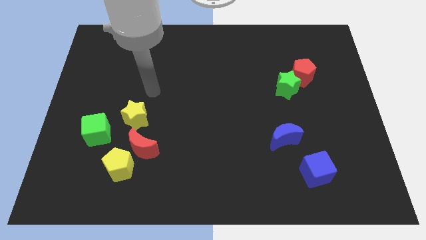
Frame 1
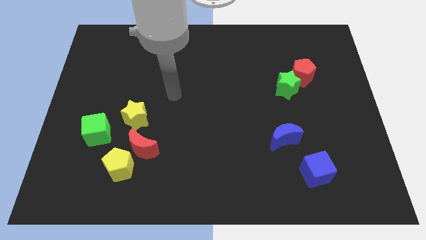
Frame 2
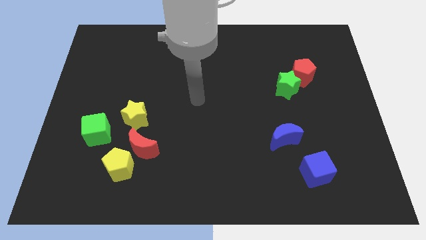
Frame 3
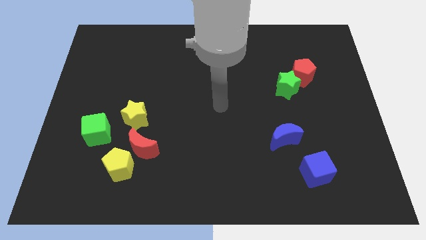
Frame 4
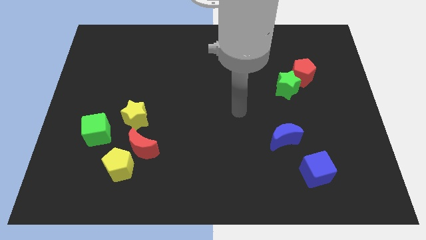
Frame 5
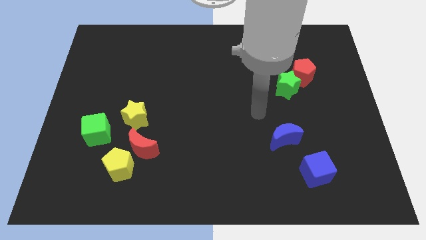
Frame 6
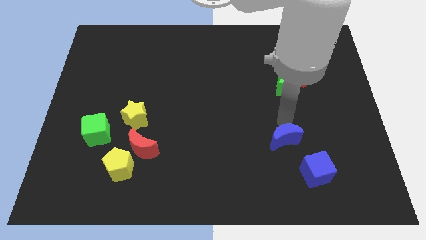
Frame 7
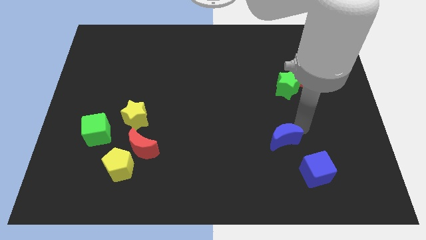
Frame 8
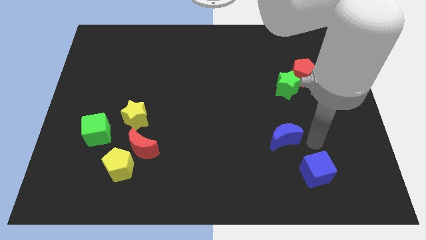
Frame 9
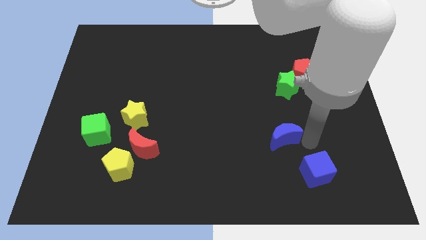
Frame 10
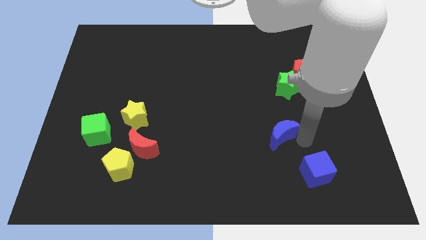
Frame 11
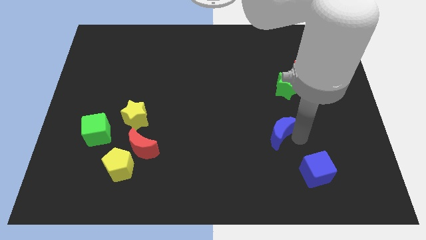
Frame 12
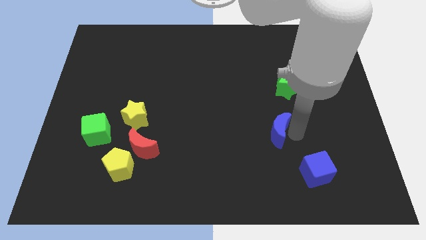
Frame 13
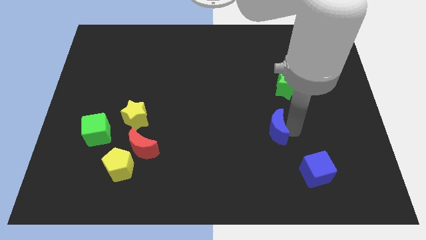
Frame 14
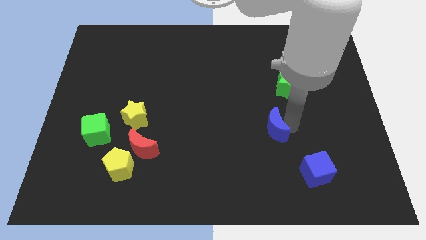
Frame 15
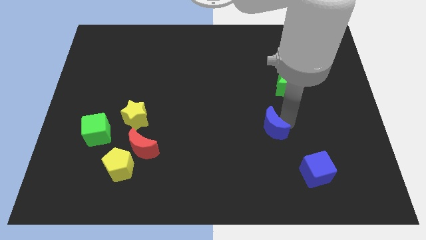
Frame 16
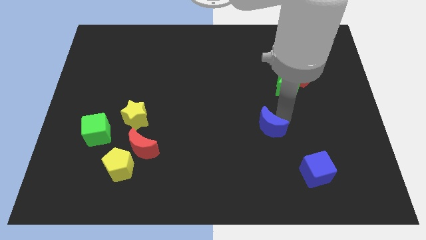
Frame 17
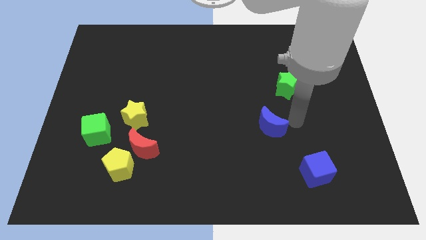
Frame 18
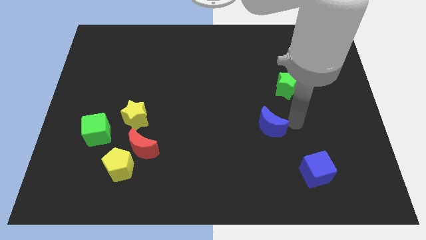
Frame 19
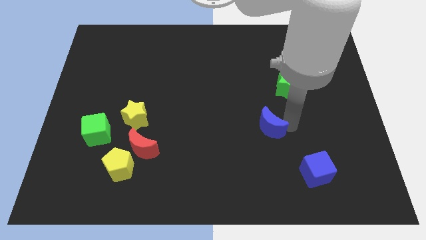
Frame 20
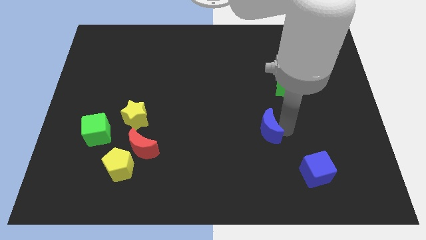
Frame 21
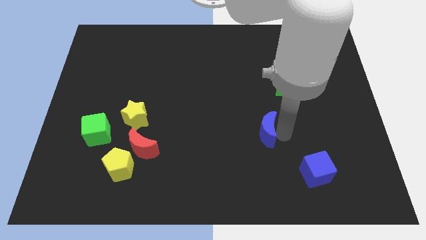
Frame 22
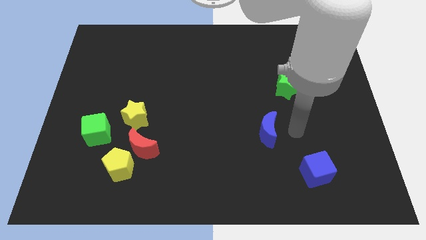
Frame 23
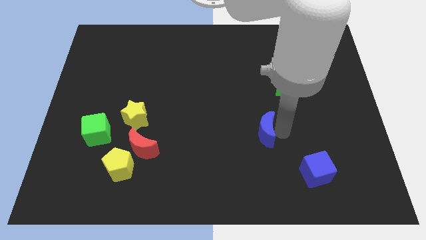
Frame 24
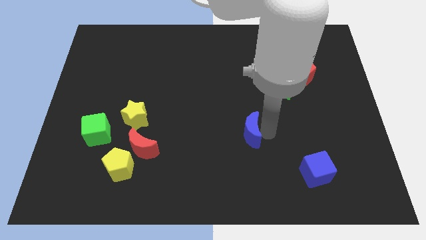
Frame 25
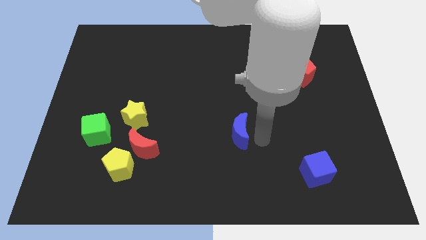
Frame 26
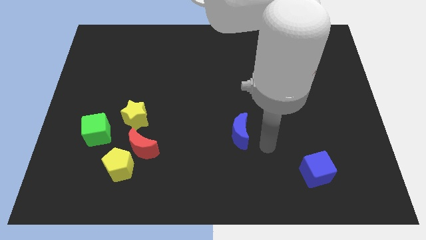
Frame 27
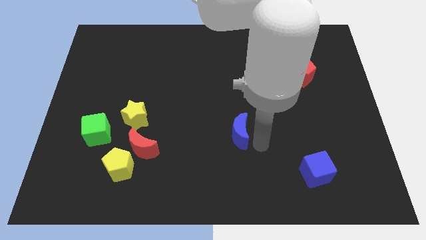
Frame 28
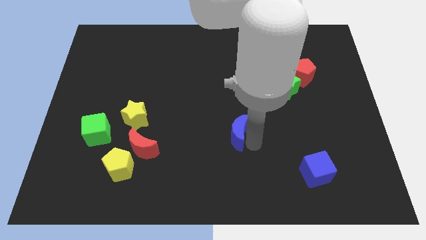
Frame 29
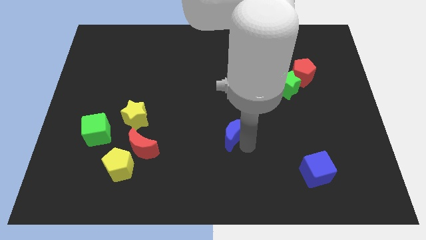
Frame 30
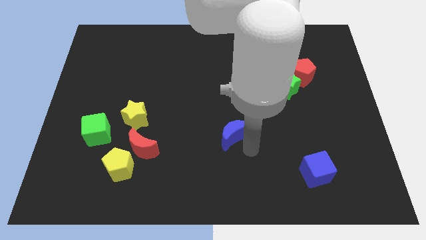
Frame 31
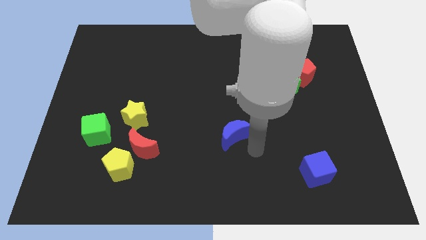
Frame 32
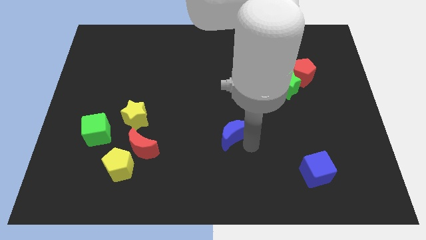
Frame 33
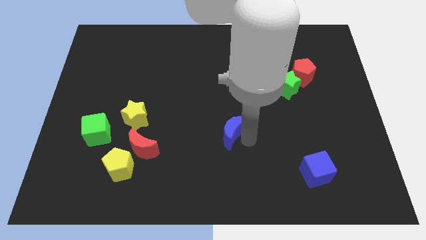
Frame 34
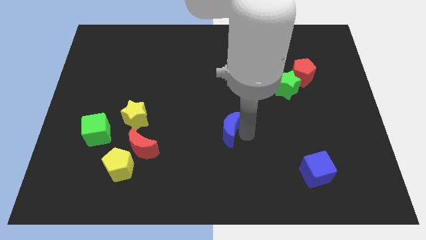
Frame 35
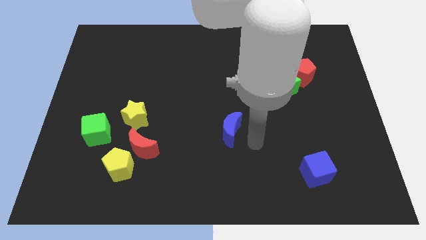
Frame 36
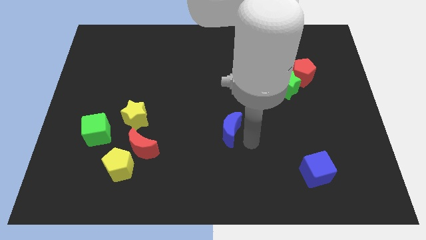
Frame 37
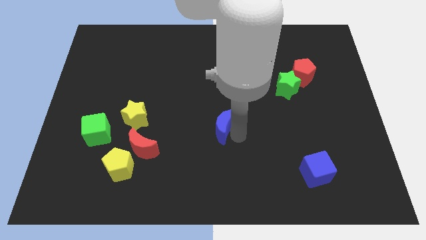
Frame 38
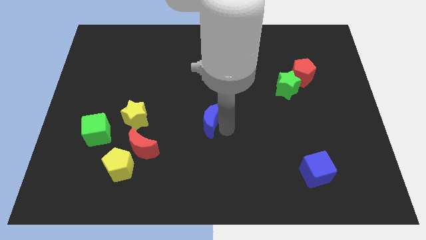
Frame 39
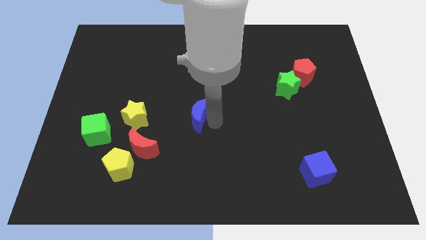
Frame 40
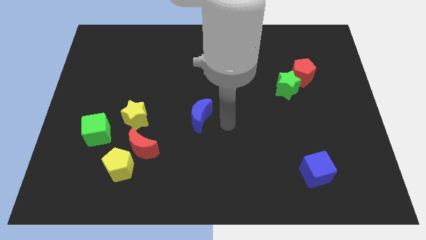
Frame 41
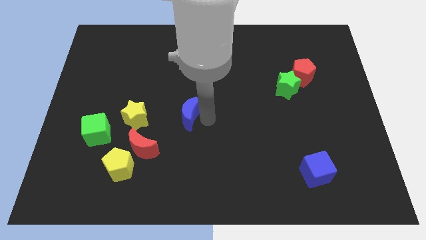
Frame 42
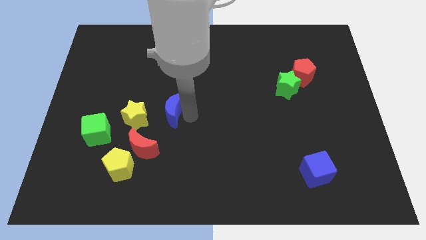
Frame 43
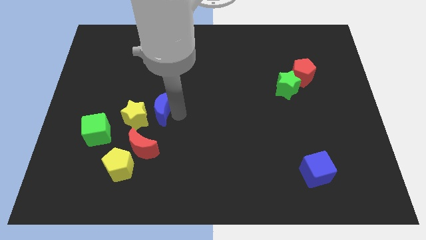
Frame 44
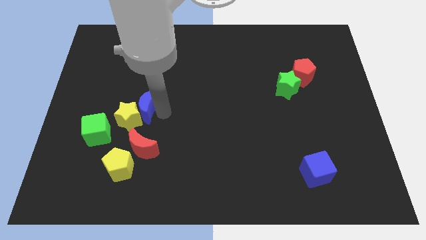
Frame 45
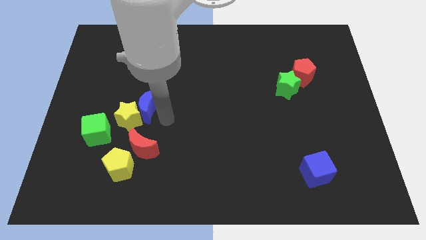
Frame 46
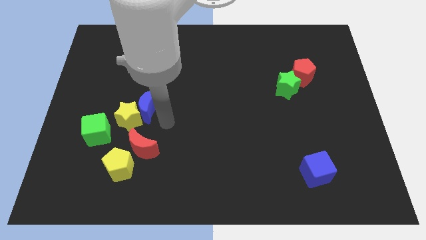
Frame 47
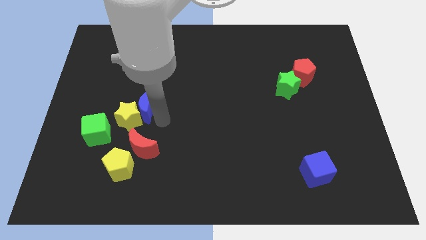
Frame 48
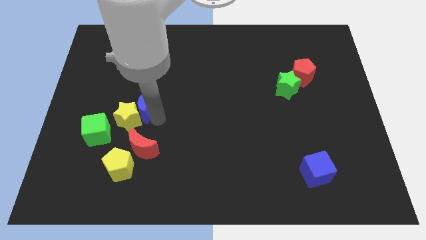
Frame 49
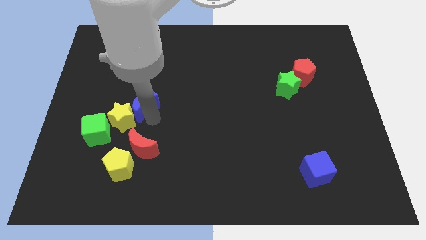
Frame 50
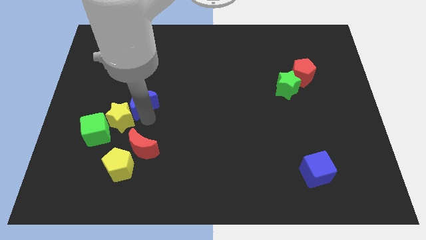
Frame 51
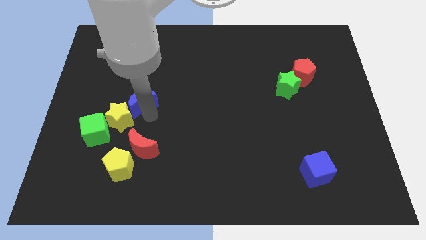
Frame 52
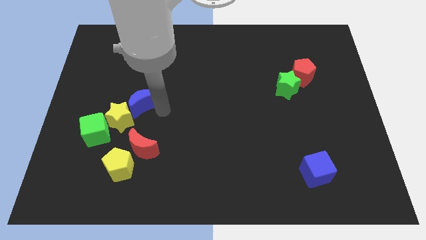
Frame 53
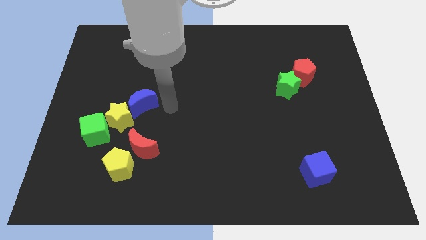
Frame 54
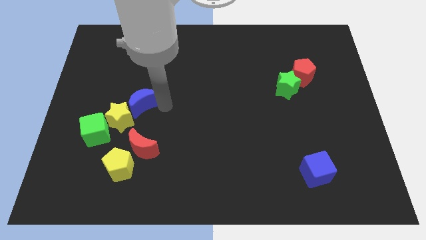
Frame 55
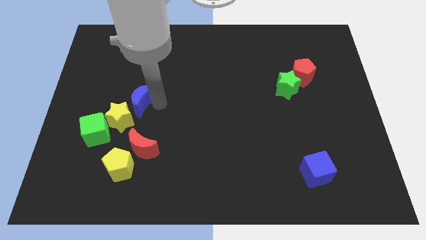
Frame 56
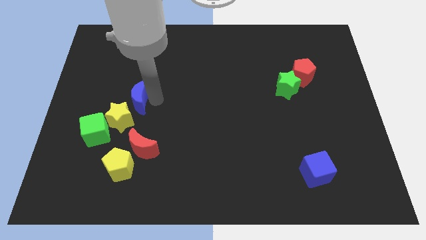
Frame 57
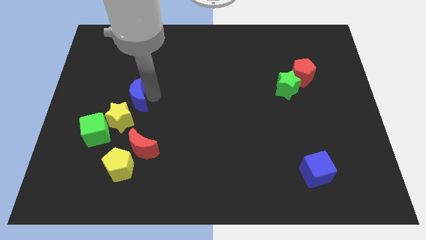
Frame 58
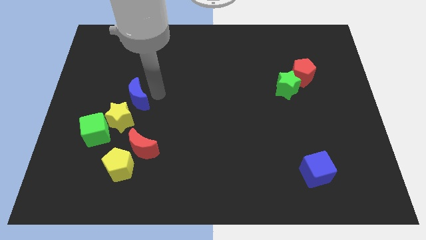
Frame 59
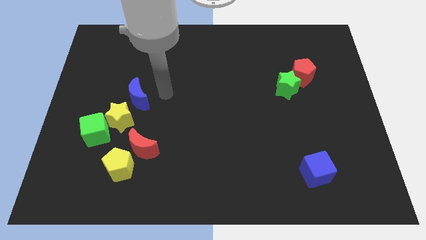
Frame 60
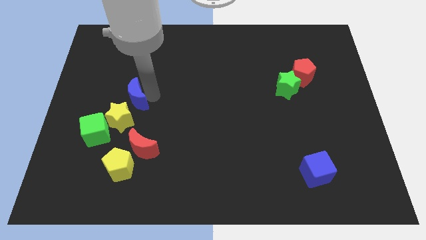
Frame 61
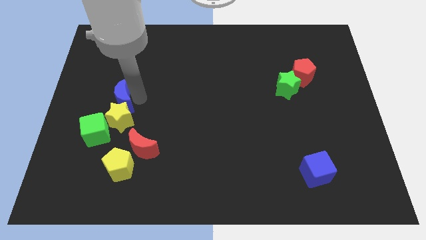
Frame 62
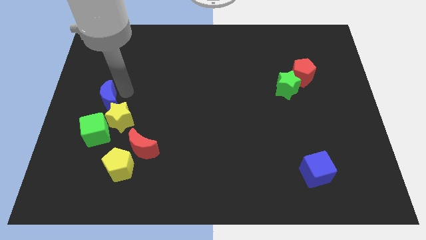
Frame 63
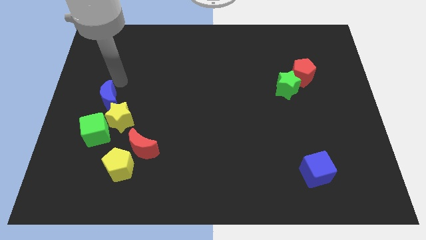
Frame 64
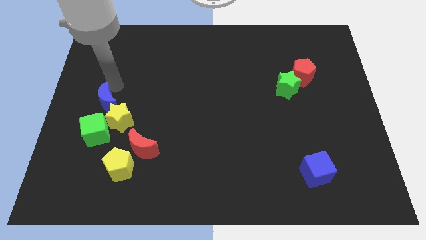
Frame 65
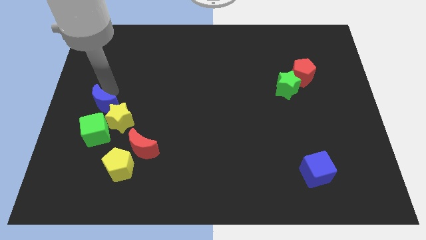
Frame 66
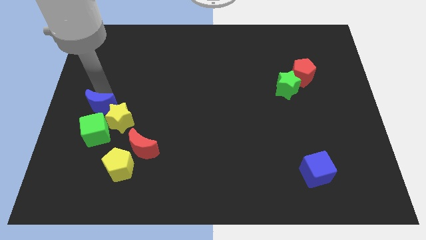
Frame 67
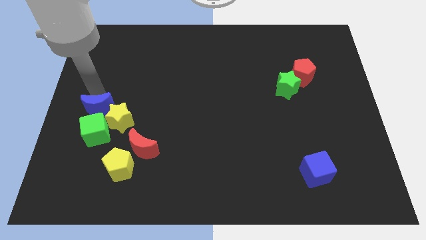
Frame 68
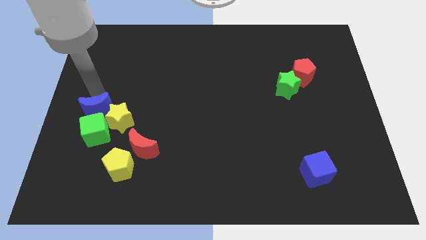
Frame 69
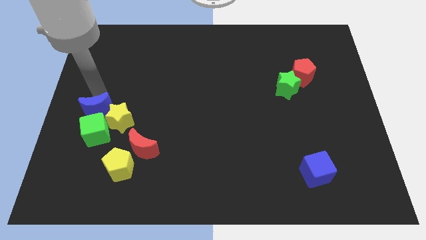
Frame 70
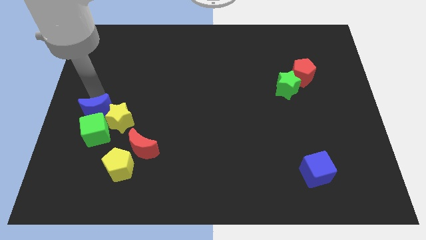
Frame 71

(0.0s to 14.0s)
move the blue moon towards the green cube

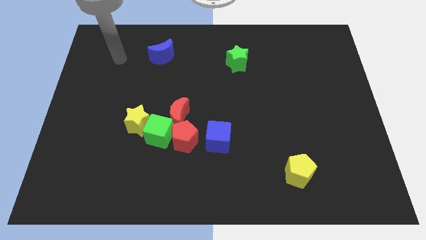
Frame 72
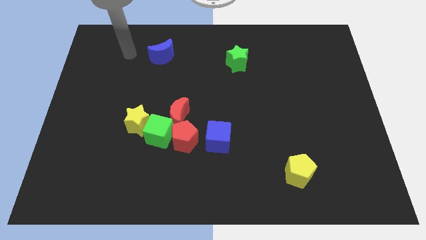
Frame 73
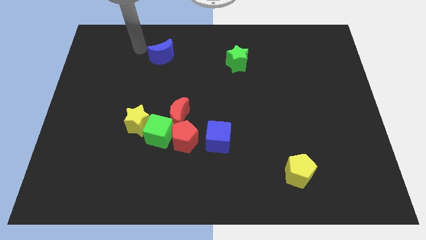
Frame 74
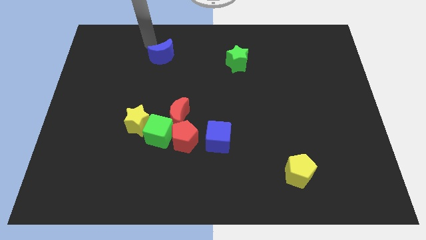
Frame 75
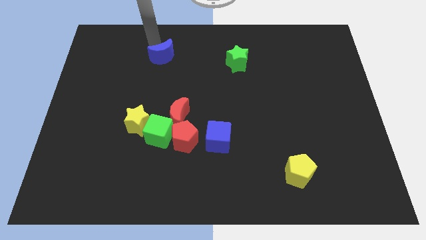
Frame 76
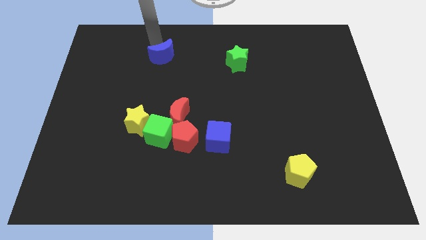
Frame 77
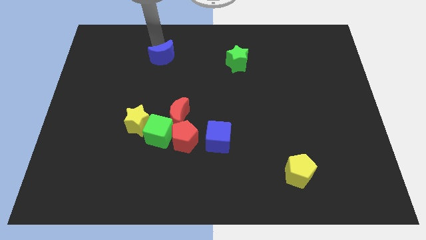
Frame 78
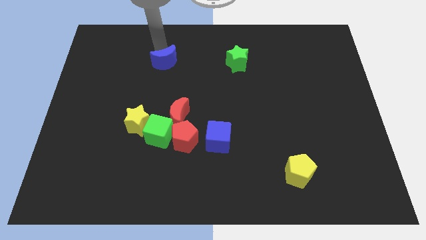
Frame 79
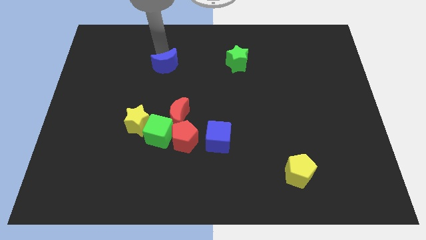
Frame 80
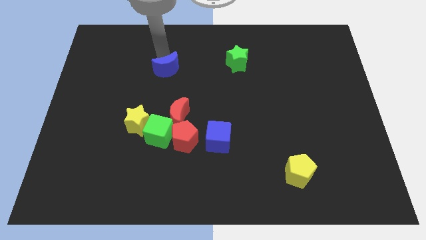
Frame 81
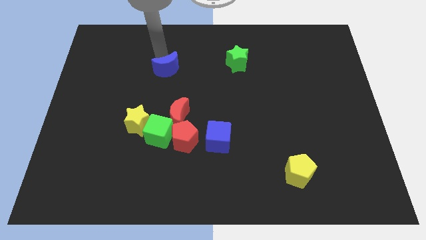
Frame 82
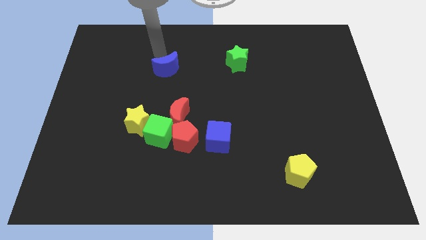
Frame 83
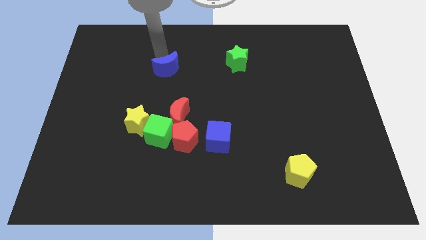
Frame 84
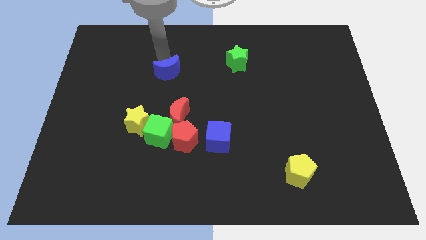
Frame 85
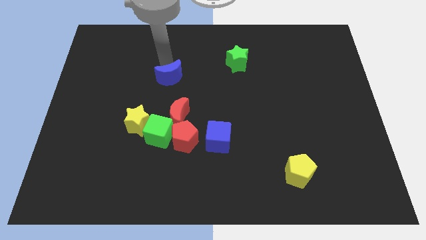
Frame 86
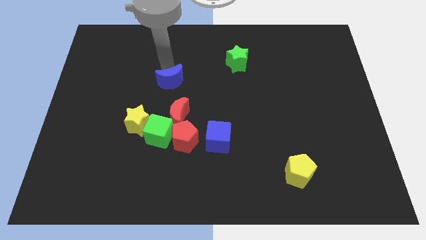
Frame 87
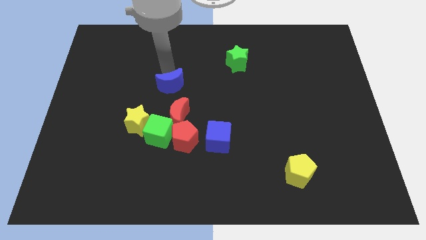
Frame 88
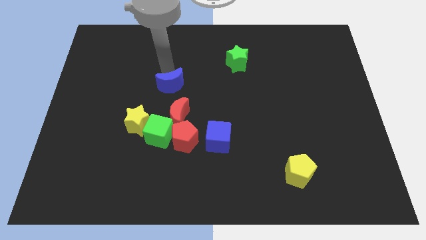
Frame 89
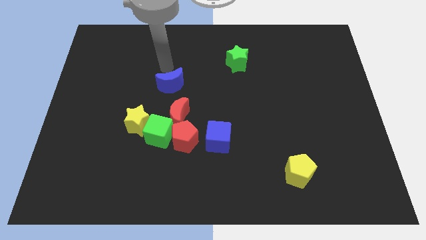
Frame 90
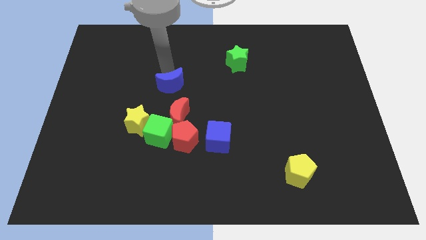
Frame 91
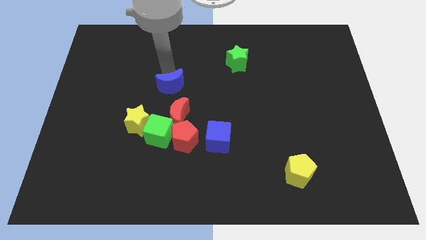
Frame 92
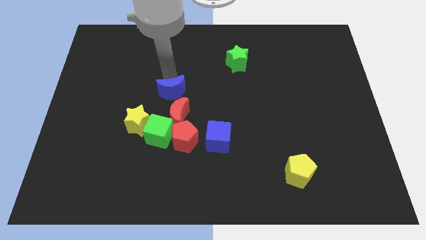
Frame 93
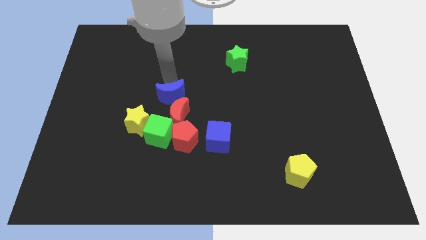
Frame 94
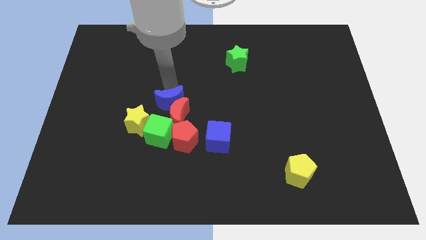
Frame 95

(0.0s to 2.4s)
put the blue moon to the red moon
